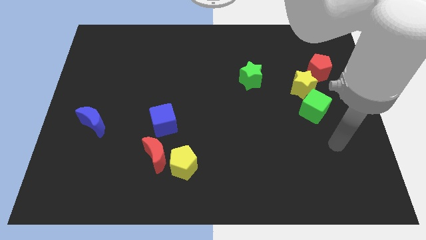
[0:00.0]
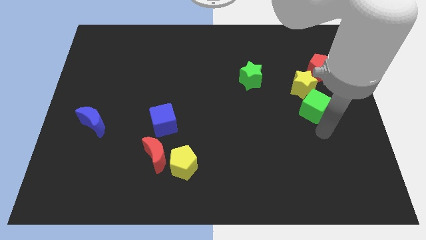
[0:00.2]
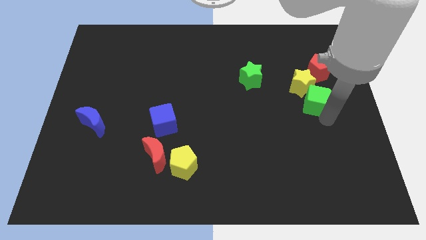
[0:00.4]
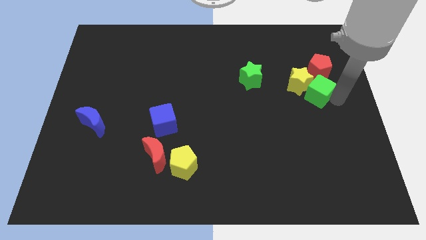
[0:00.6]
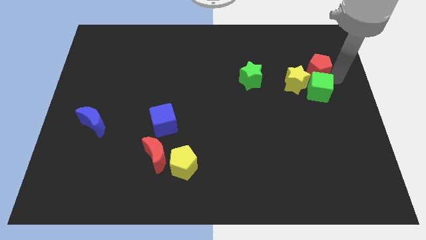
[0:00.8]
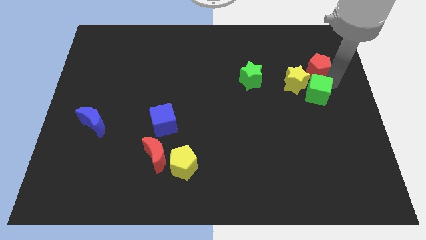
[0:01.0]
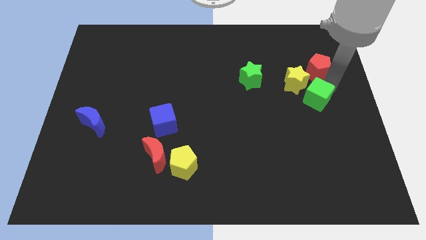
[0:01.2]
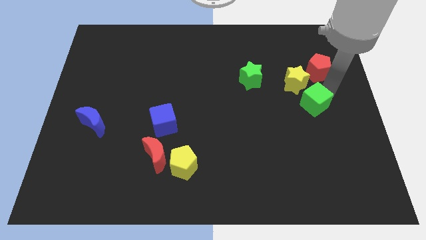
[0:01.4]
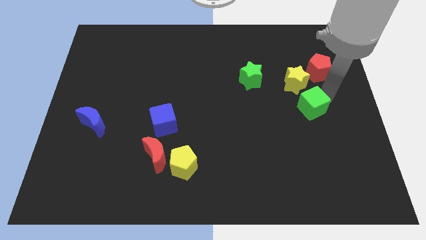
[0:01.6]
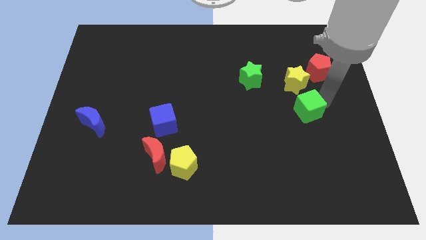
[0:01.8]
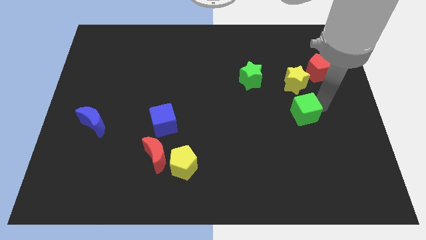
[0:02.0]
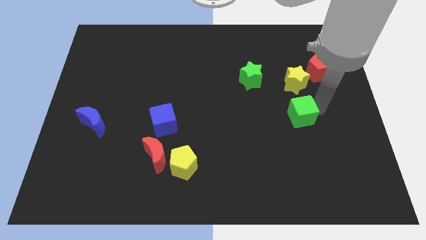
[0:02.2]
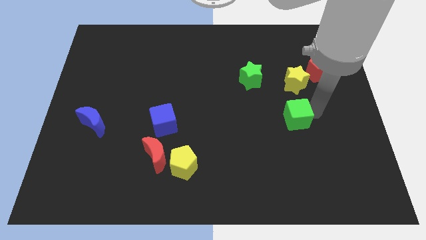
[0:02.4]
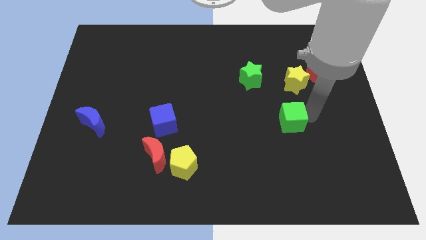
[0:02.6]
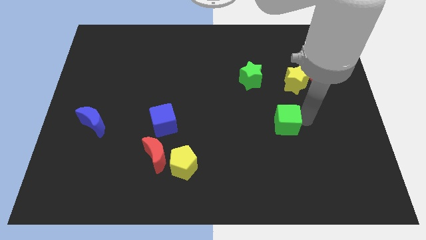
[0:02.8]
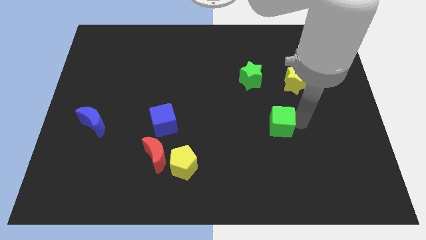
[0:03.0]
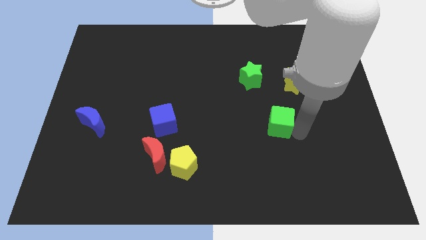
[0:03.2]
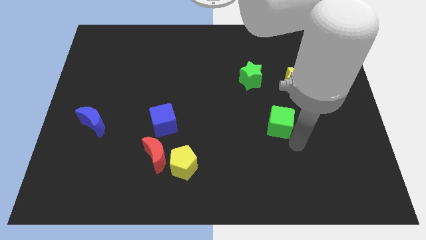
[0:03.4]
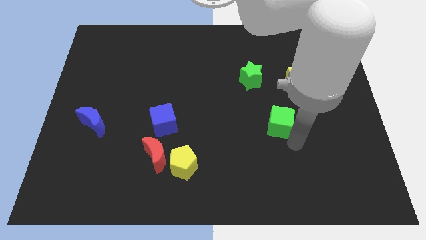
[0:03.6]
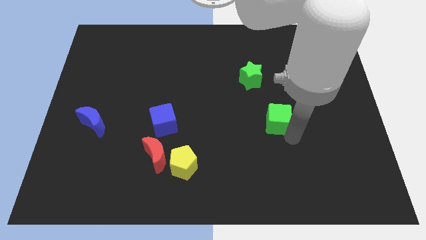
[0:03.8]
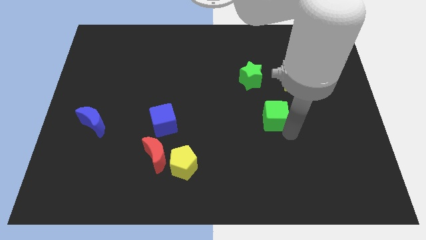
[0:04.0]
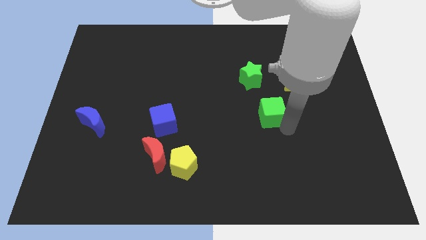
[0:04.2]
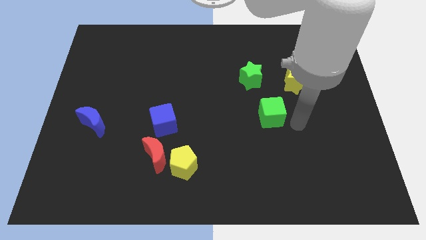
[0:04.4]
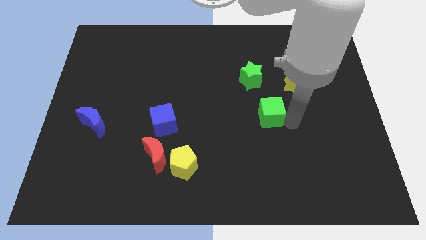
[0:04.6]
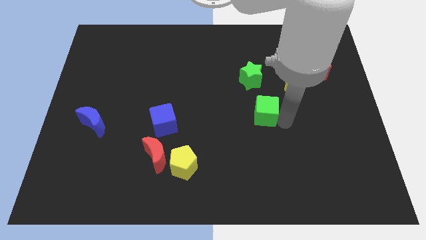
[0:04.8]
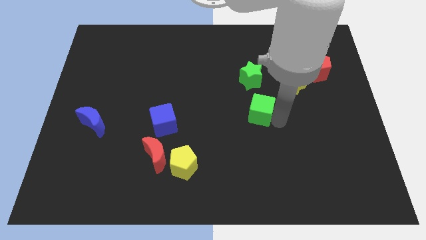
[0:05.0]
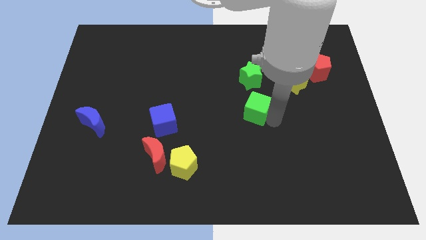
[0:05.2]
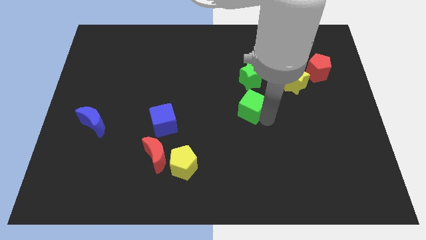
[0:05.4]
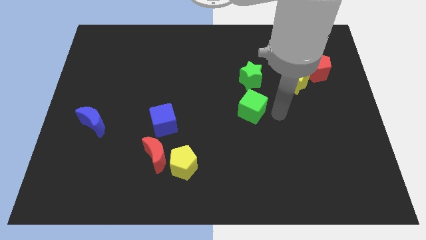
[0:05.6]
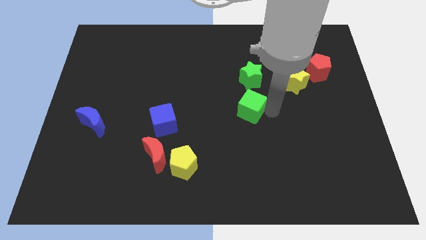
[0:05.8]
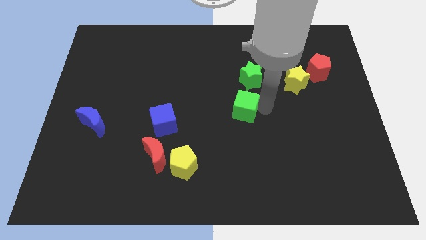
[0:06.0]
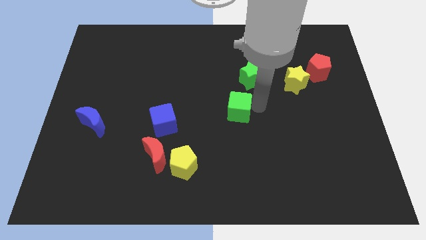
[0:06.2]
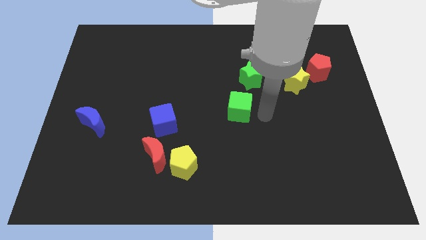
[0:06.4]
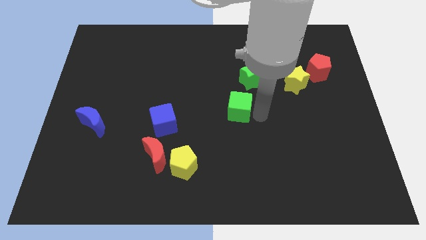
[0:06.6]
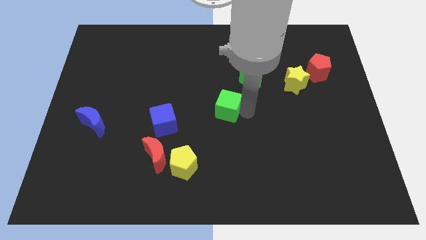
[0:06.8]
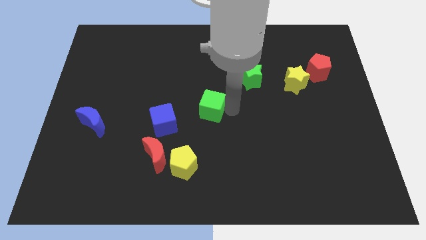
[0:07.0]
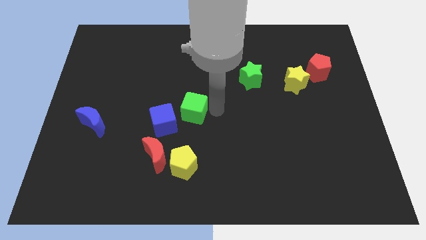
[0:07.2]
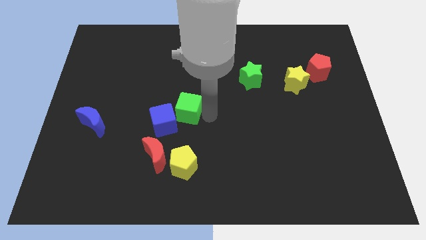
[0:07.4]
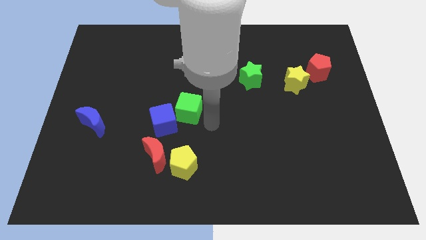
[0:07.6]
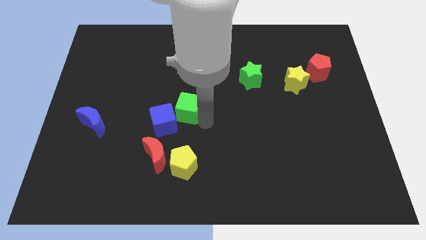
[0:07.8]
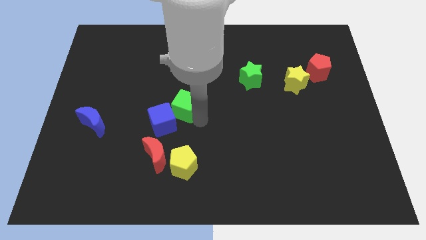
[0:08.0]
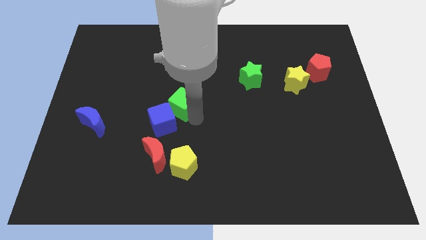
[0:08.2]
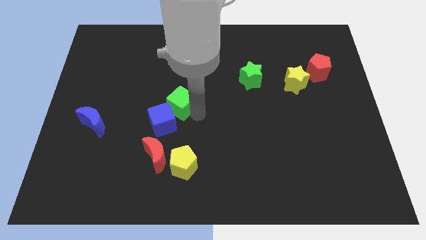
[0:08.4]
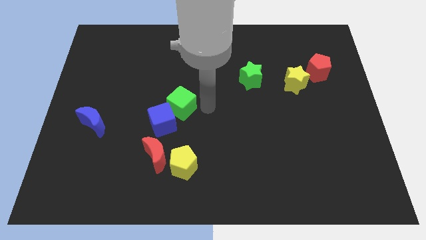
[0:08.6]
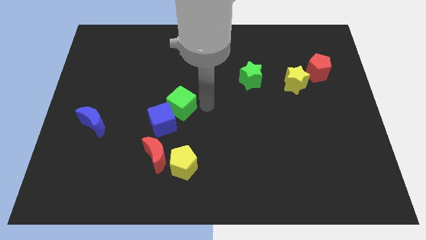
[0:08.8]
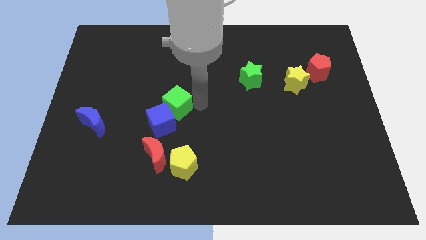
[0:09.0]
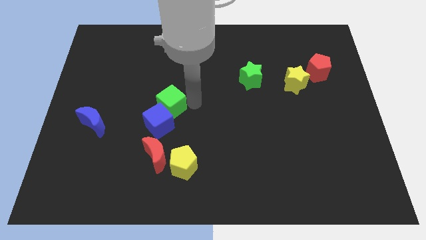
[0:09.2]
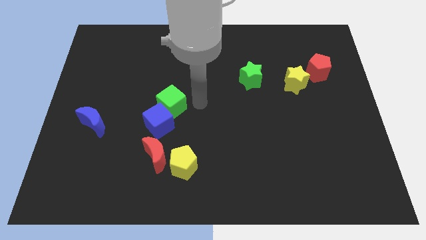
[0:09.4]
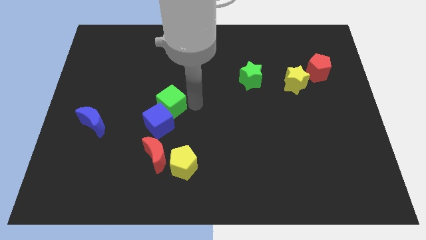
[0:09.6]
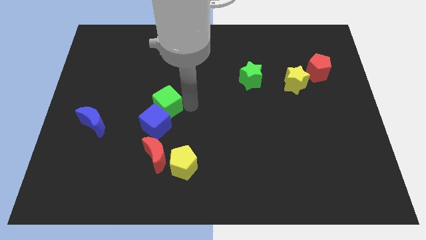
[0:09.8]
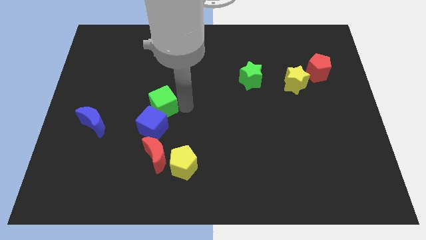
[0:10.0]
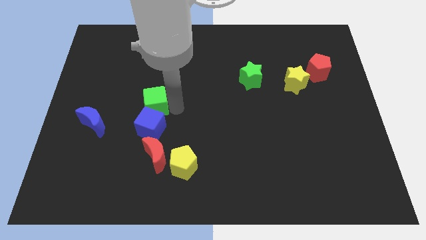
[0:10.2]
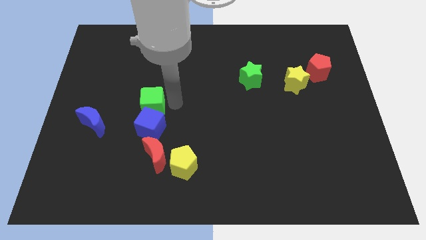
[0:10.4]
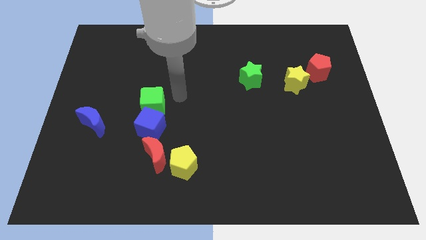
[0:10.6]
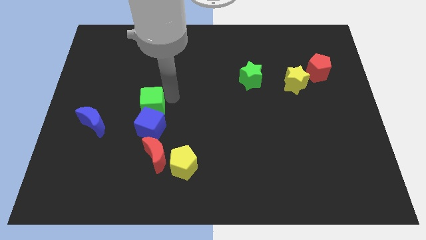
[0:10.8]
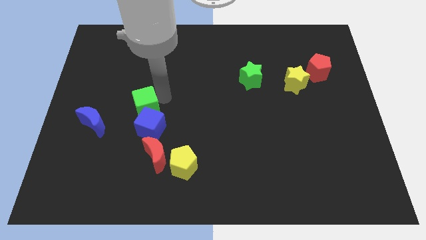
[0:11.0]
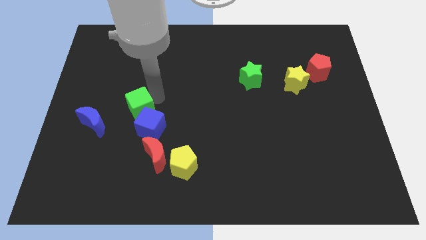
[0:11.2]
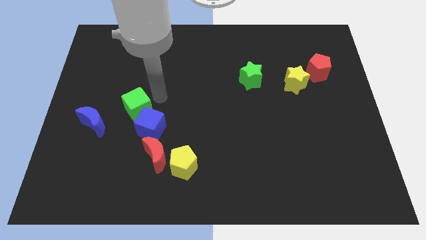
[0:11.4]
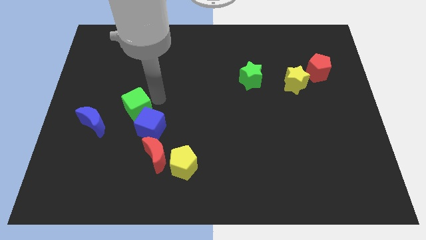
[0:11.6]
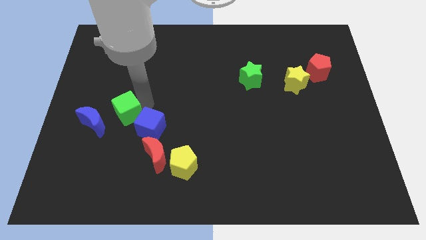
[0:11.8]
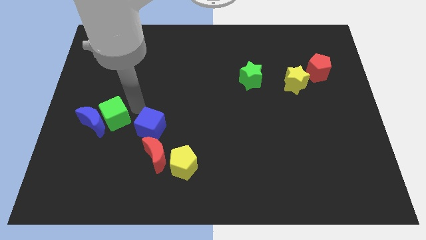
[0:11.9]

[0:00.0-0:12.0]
slide the green cube close to the blue moon

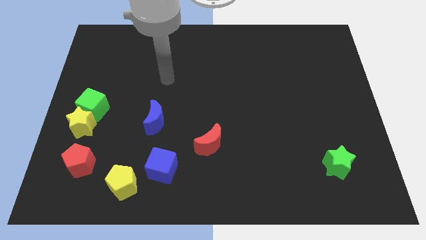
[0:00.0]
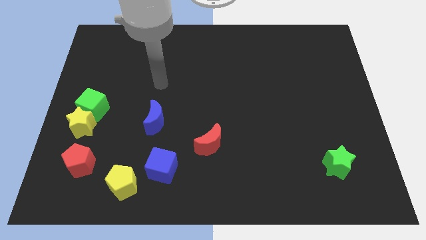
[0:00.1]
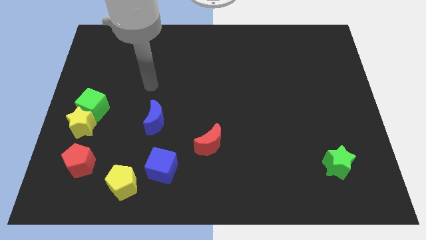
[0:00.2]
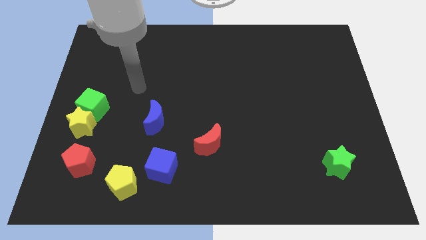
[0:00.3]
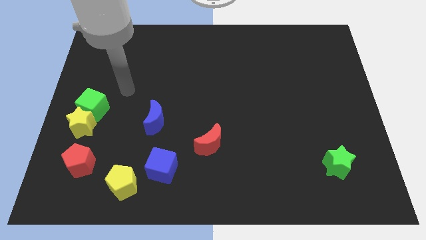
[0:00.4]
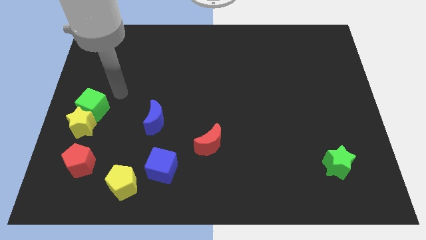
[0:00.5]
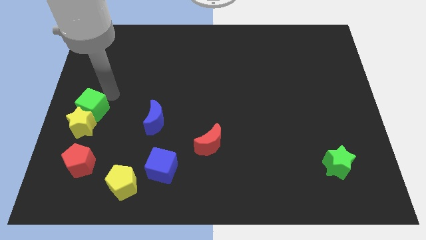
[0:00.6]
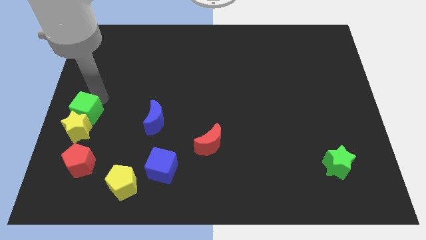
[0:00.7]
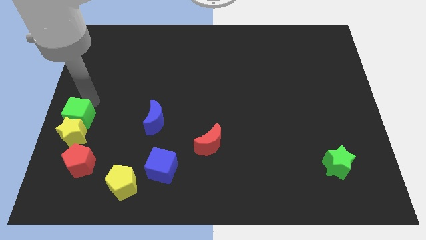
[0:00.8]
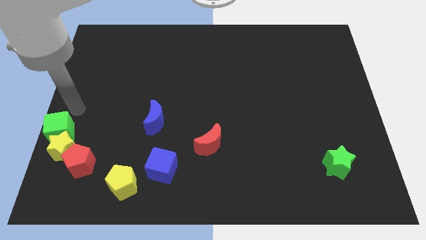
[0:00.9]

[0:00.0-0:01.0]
put the yellow star to the red pentagon
